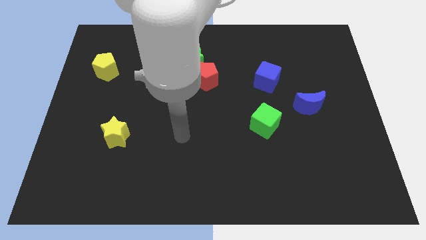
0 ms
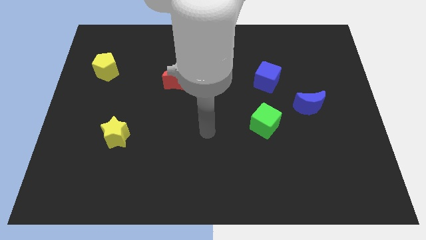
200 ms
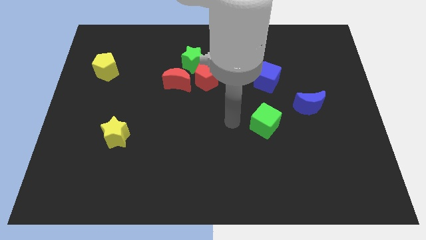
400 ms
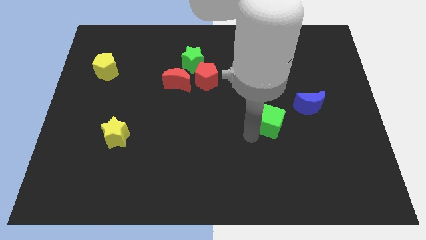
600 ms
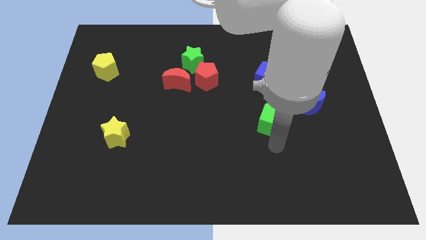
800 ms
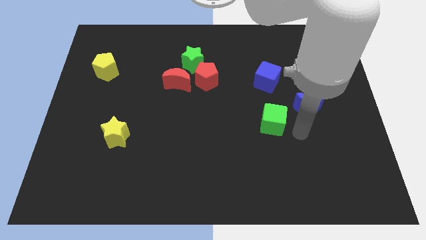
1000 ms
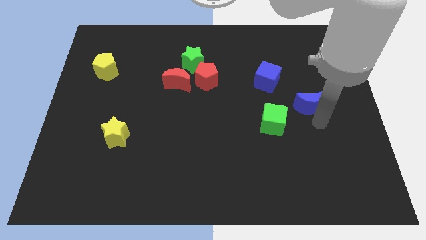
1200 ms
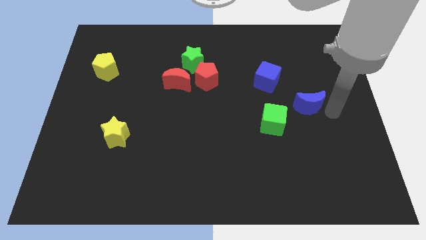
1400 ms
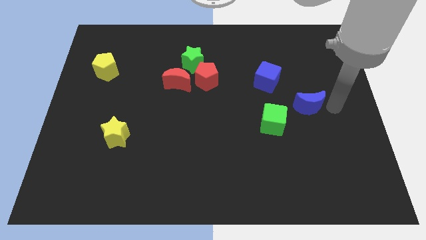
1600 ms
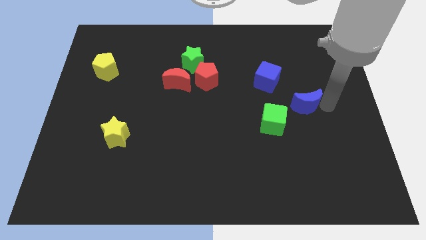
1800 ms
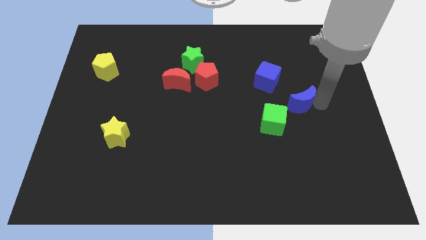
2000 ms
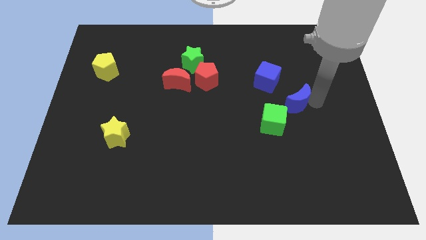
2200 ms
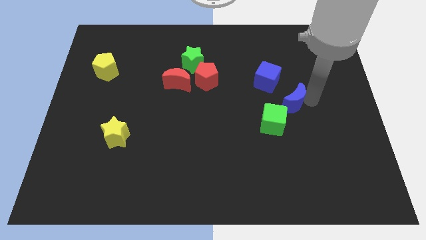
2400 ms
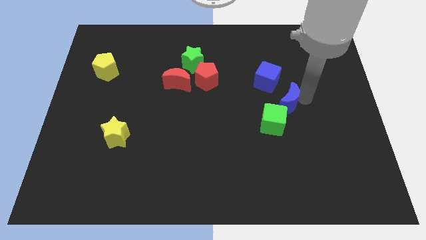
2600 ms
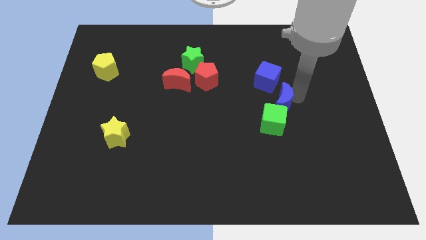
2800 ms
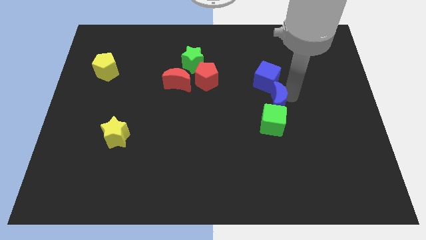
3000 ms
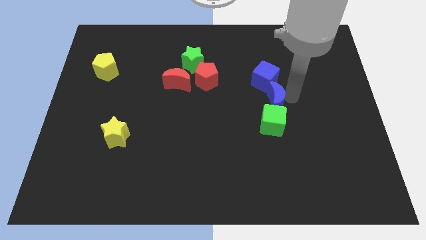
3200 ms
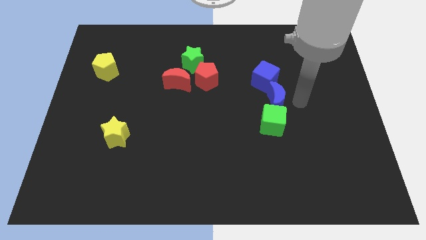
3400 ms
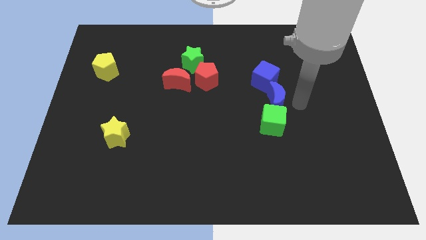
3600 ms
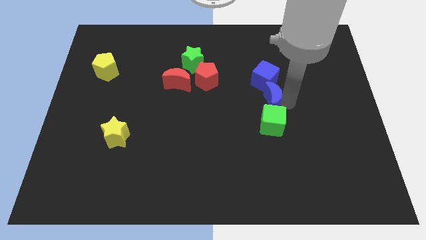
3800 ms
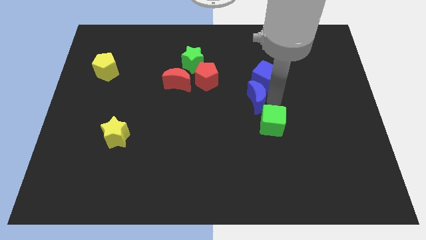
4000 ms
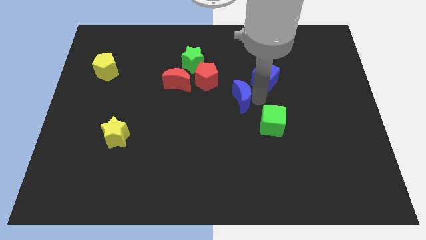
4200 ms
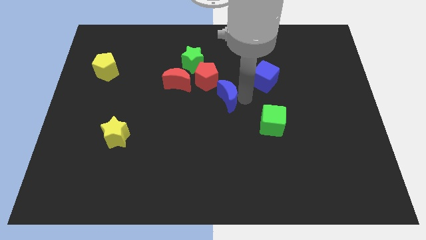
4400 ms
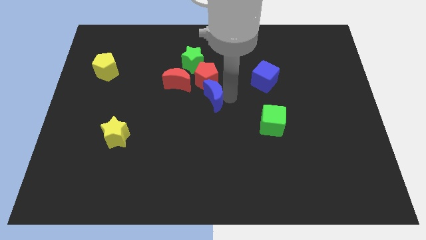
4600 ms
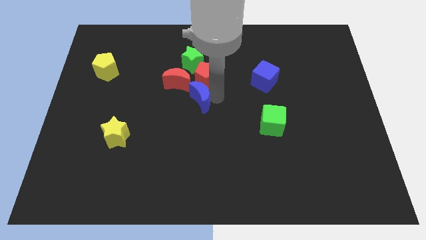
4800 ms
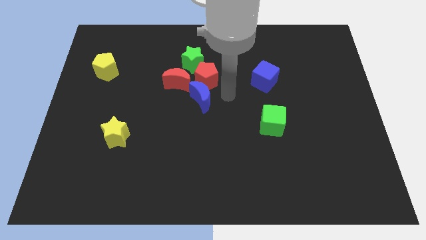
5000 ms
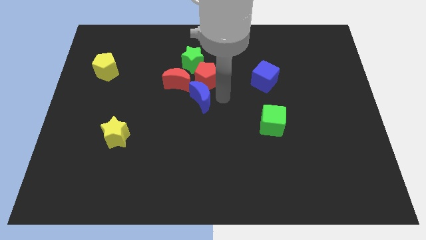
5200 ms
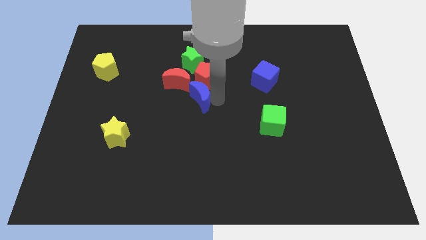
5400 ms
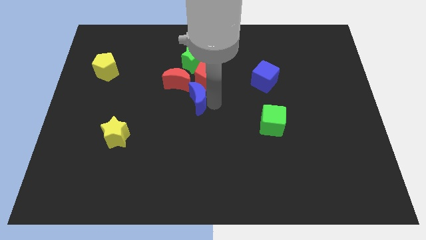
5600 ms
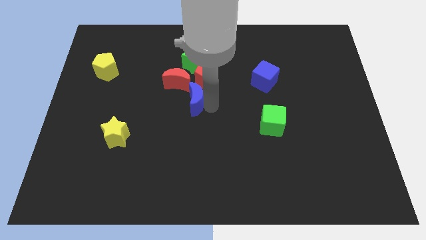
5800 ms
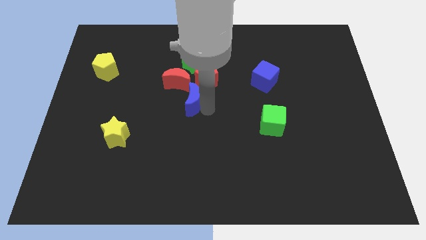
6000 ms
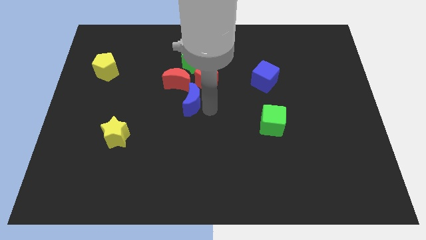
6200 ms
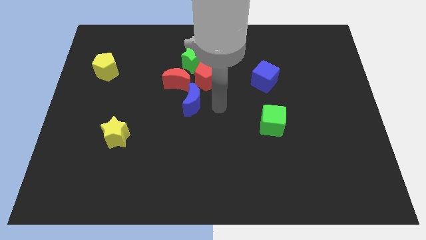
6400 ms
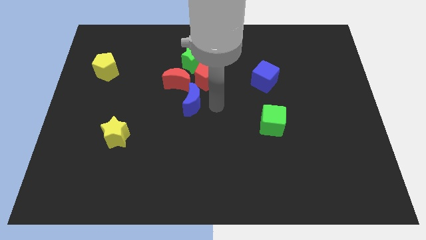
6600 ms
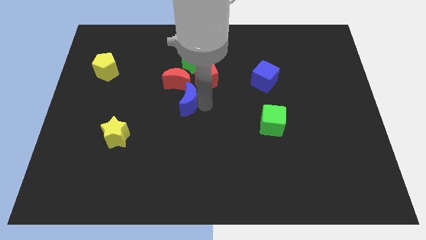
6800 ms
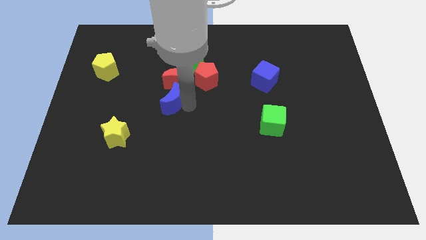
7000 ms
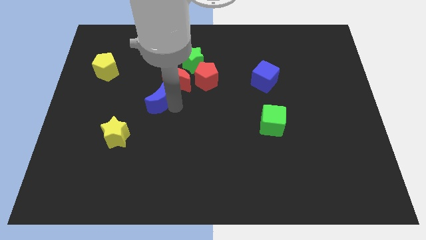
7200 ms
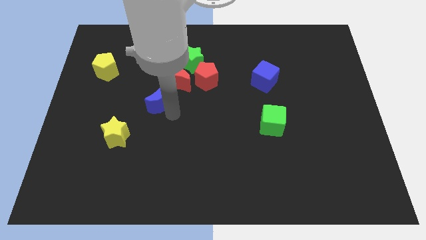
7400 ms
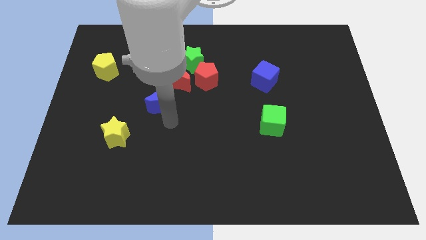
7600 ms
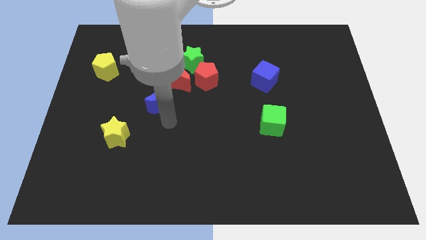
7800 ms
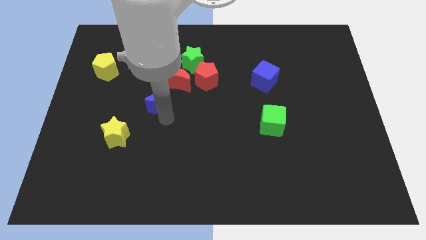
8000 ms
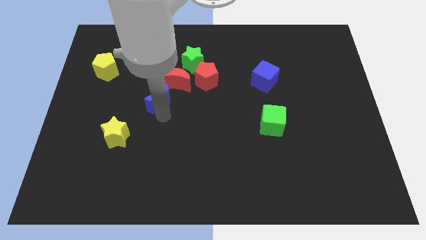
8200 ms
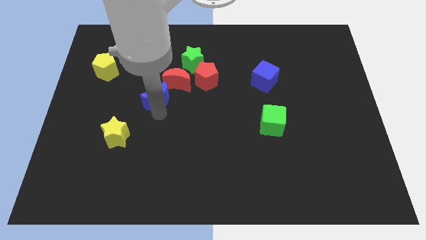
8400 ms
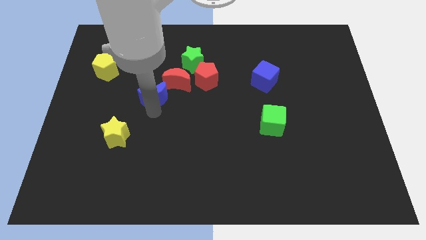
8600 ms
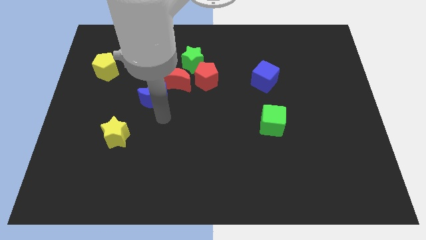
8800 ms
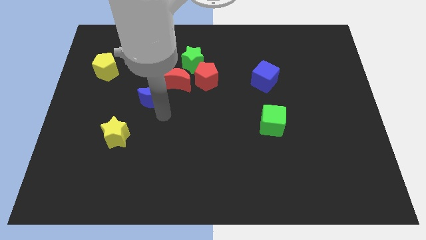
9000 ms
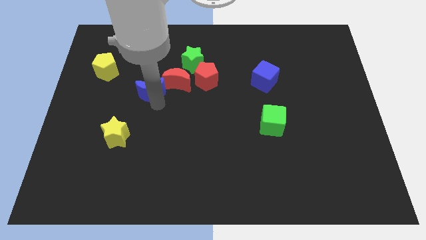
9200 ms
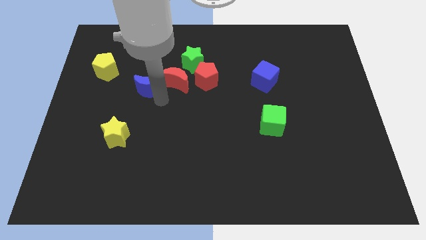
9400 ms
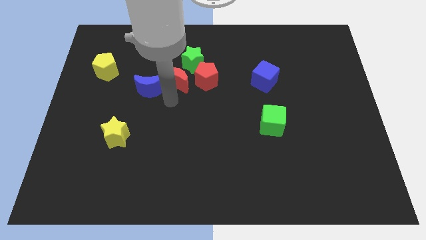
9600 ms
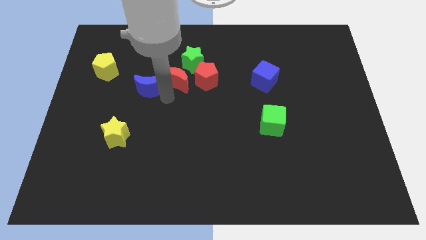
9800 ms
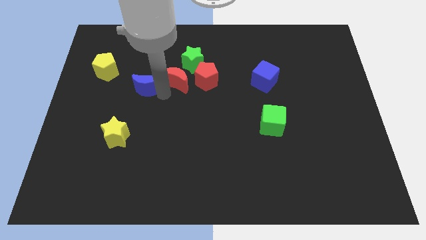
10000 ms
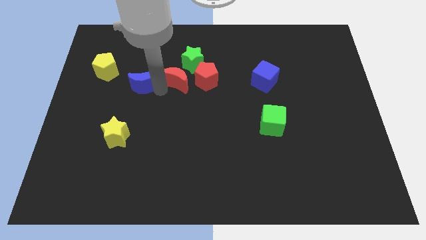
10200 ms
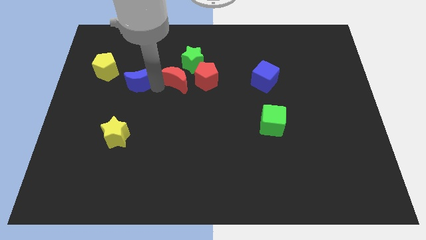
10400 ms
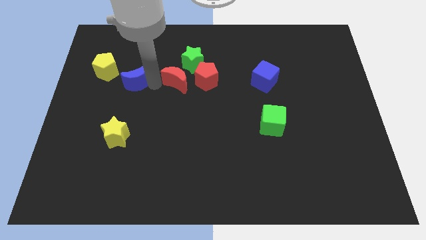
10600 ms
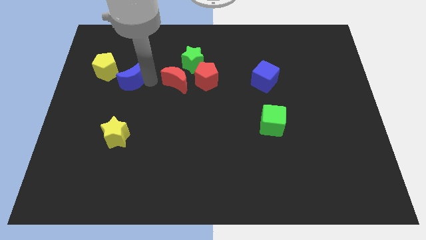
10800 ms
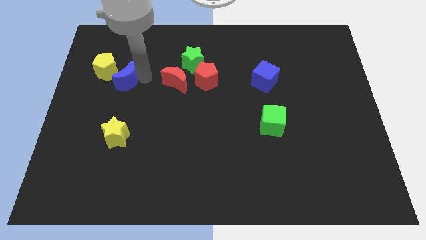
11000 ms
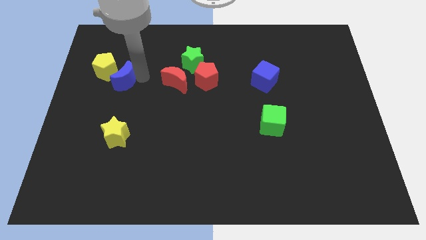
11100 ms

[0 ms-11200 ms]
move the blue moon towards the yellow pentagon

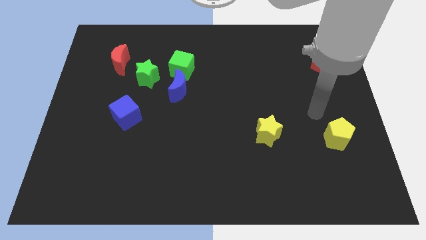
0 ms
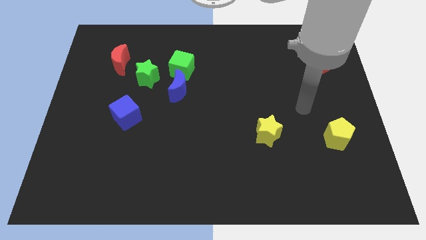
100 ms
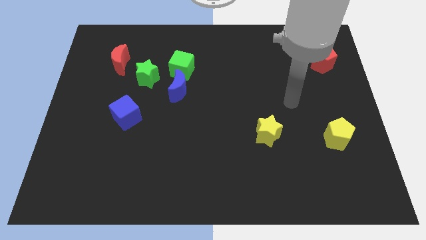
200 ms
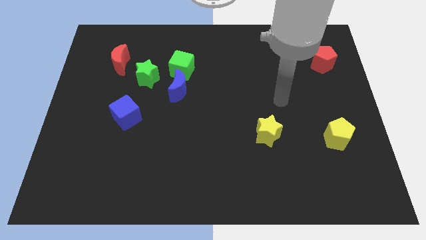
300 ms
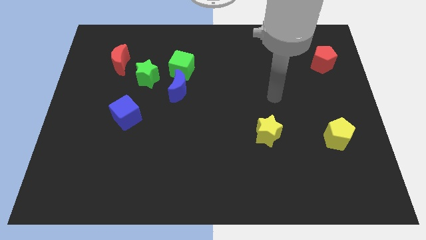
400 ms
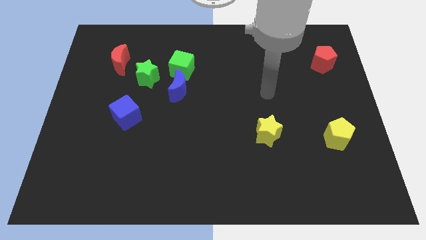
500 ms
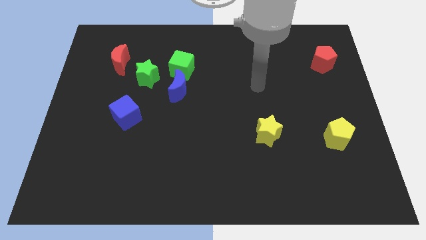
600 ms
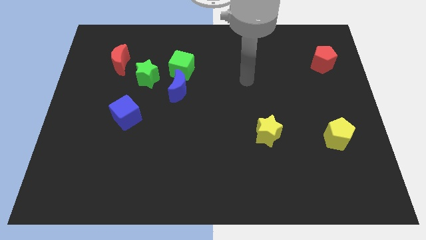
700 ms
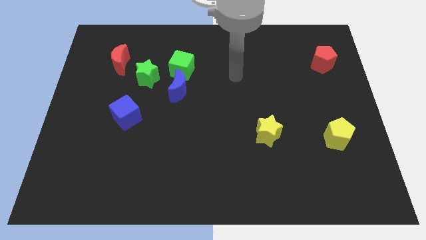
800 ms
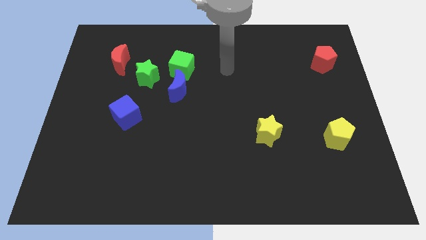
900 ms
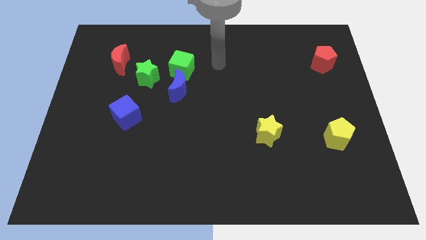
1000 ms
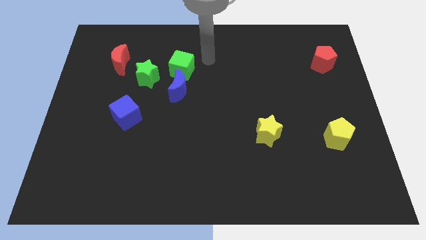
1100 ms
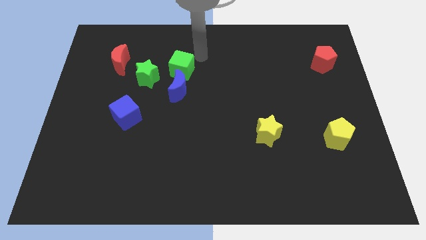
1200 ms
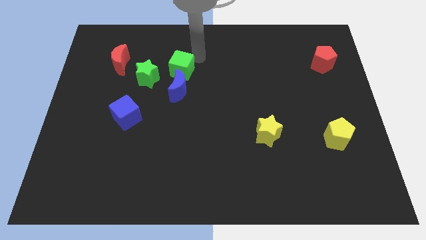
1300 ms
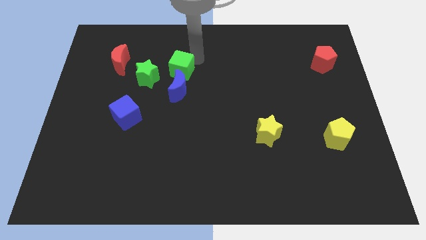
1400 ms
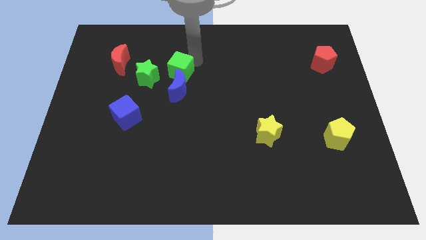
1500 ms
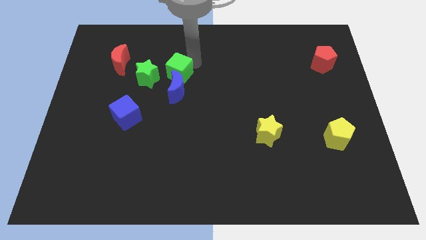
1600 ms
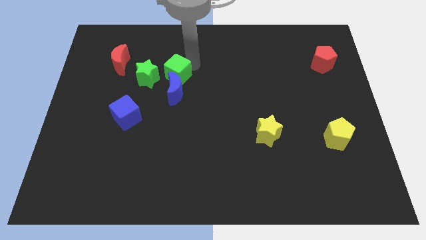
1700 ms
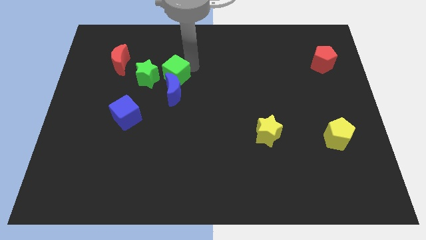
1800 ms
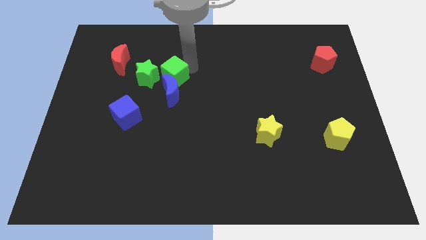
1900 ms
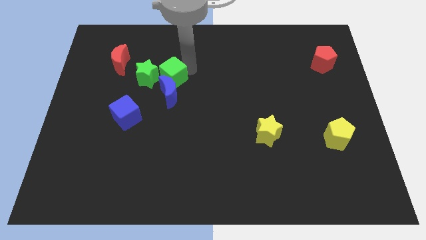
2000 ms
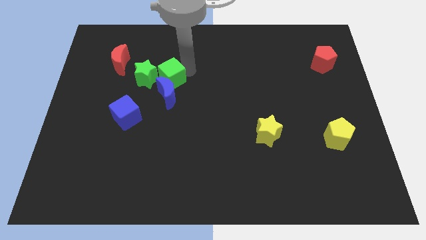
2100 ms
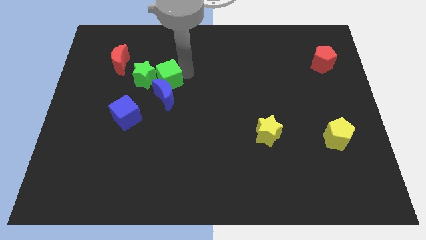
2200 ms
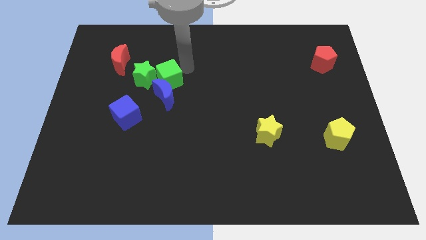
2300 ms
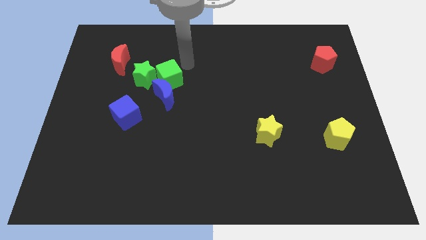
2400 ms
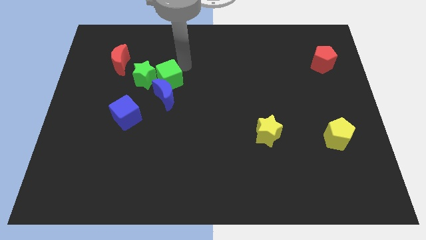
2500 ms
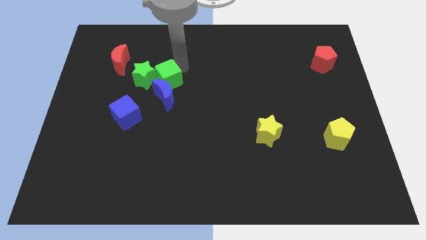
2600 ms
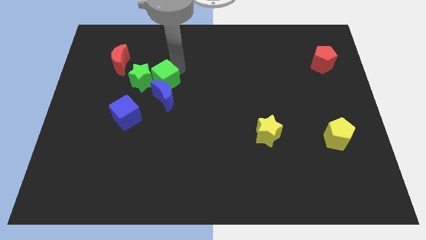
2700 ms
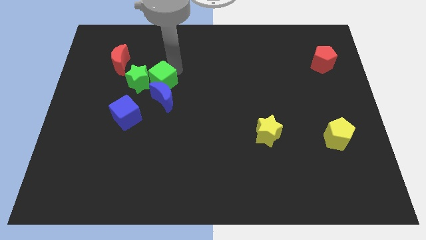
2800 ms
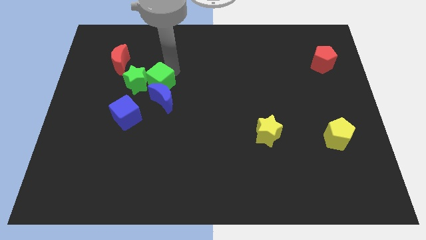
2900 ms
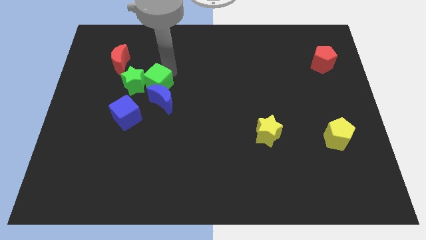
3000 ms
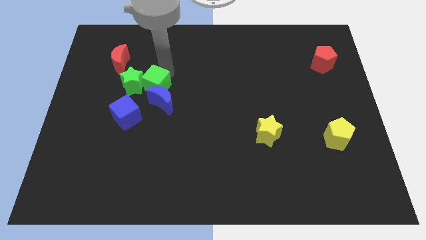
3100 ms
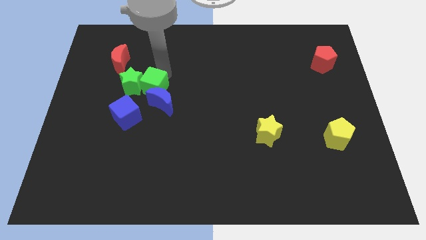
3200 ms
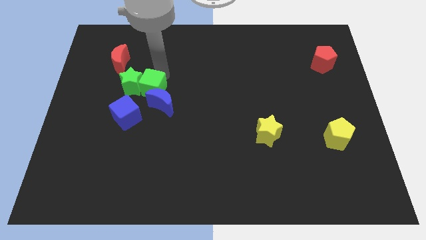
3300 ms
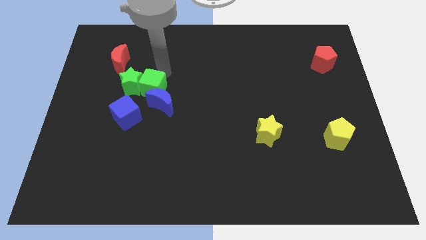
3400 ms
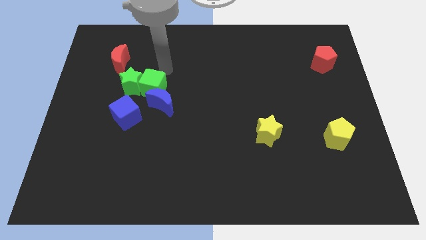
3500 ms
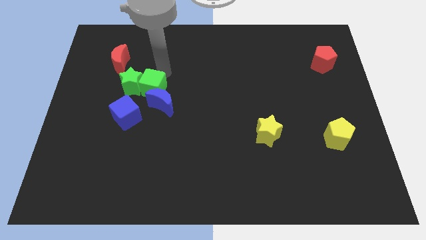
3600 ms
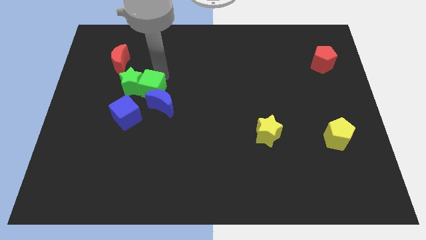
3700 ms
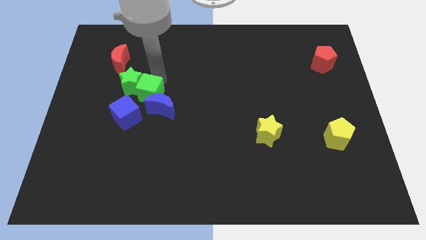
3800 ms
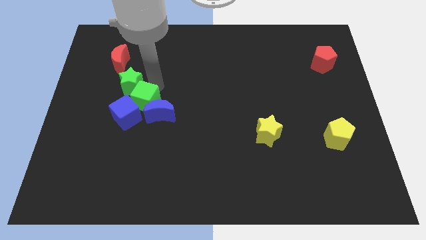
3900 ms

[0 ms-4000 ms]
move the green cube to the blue cube
